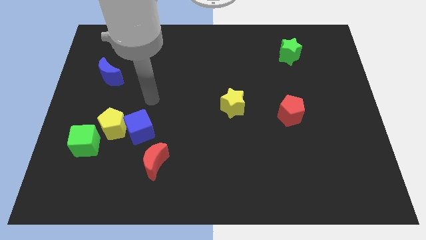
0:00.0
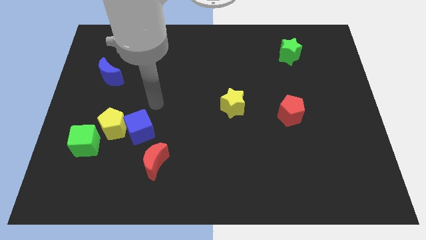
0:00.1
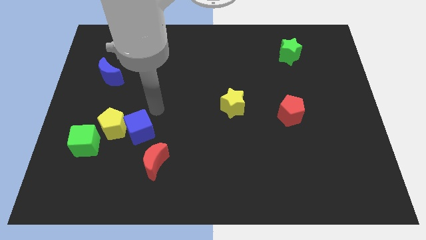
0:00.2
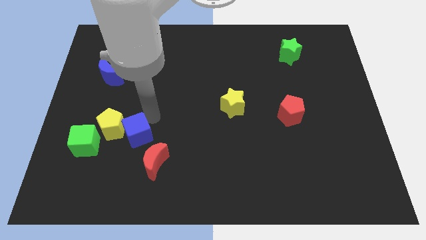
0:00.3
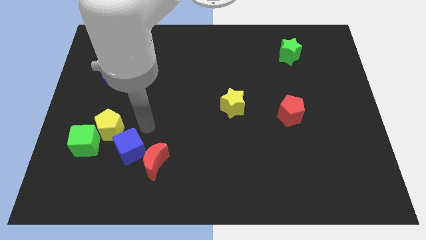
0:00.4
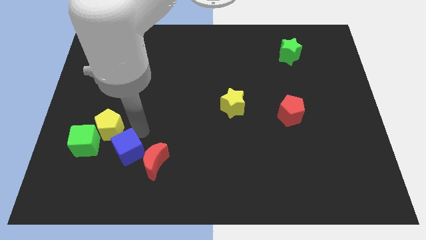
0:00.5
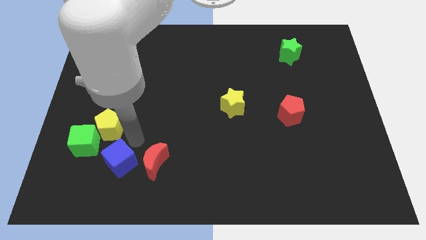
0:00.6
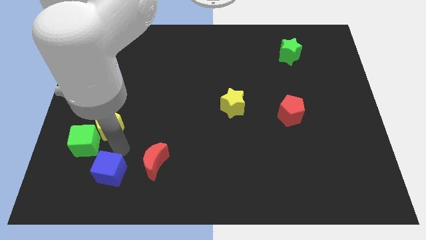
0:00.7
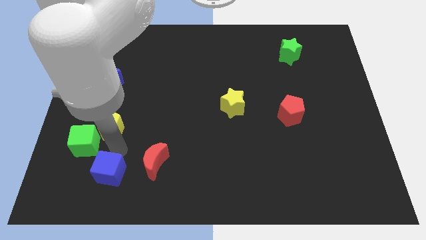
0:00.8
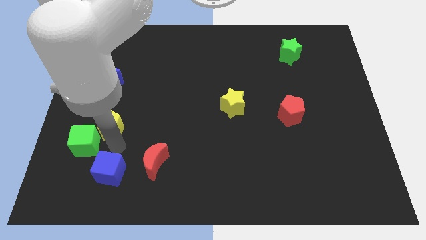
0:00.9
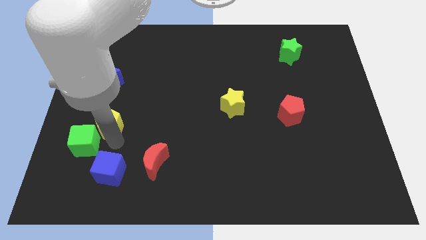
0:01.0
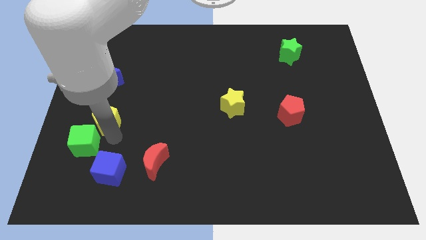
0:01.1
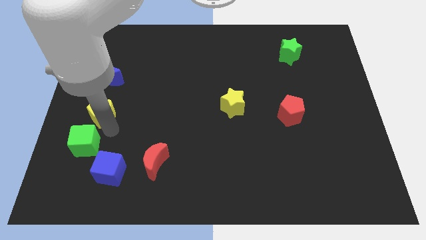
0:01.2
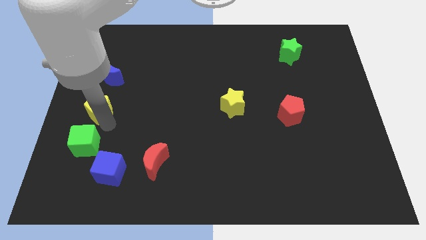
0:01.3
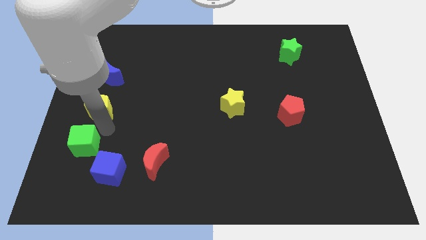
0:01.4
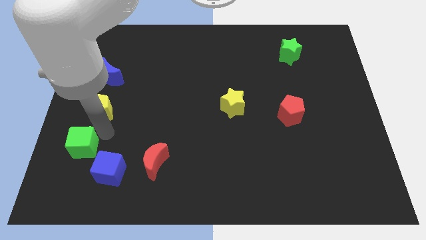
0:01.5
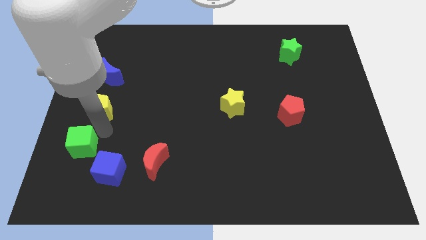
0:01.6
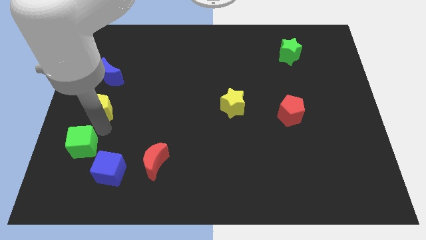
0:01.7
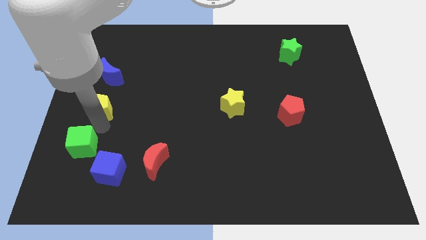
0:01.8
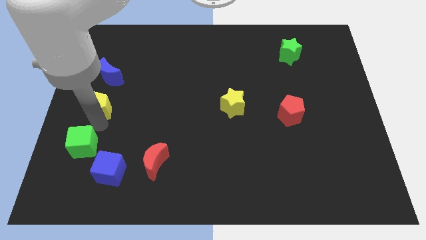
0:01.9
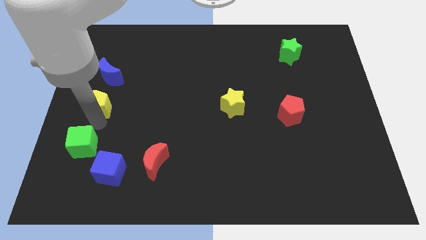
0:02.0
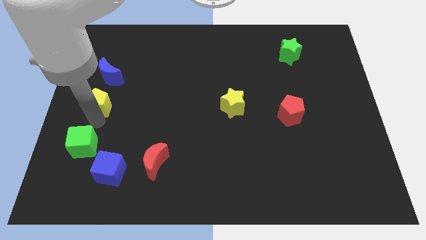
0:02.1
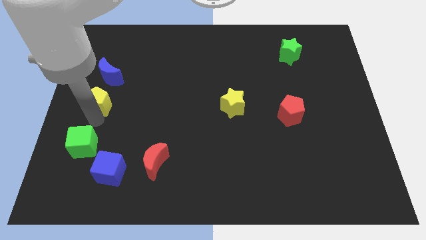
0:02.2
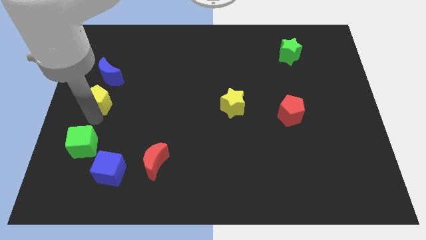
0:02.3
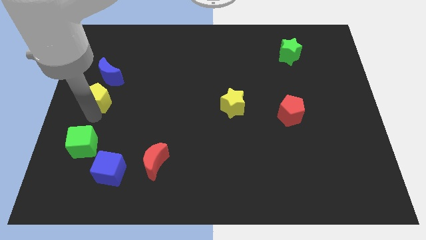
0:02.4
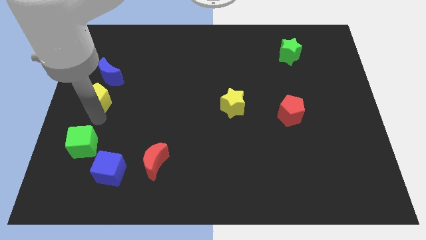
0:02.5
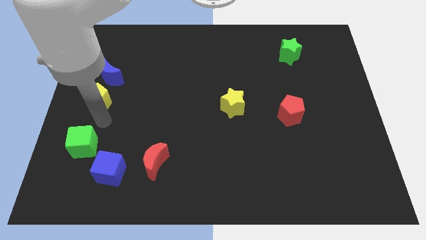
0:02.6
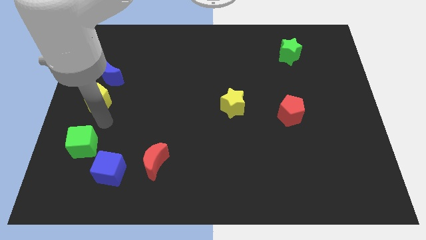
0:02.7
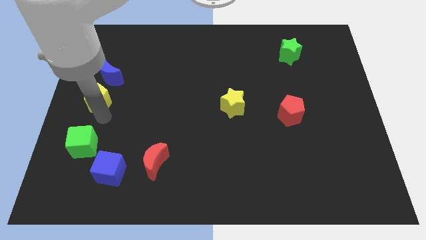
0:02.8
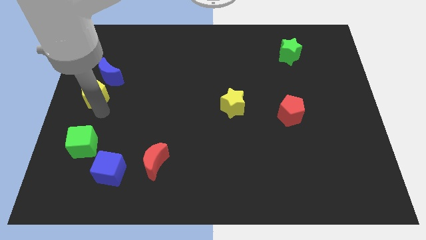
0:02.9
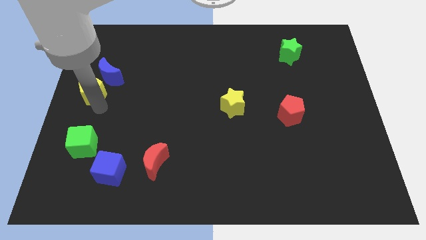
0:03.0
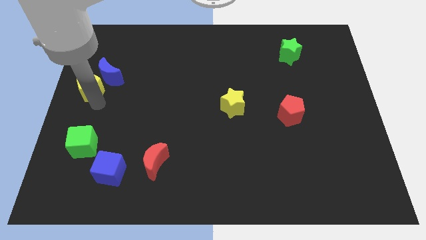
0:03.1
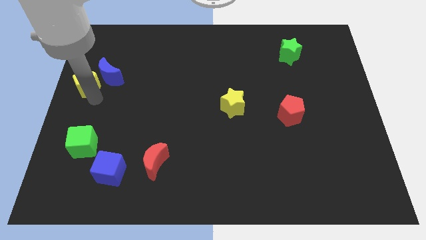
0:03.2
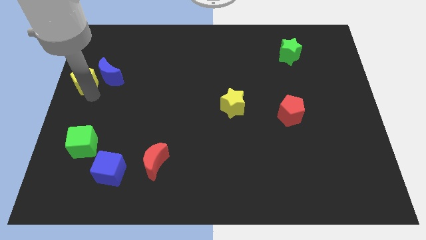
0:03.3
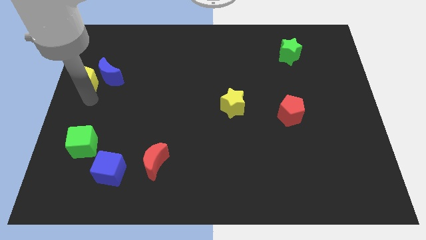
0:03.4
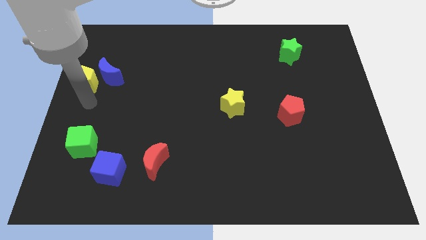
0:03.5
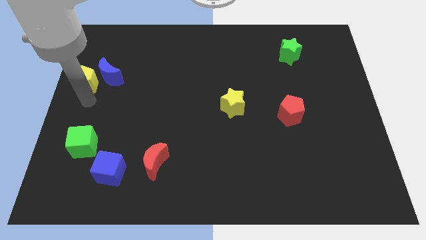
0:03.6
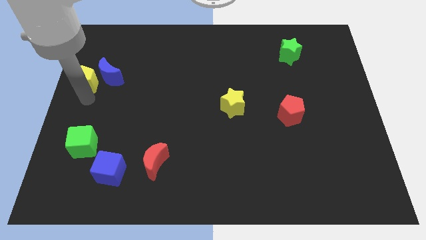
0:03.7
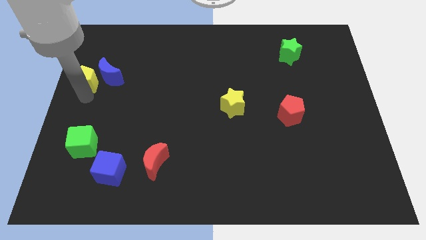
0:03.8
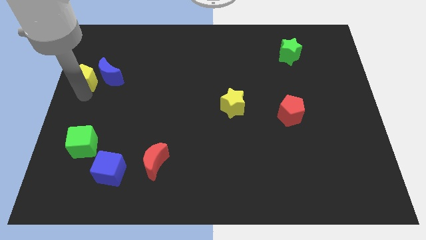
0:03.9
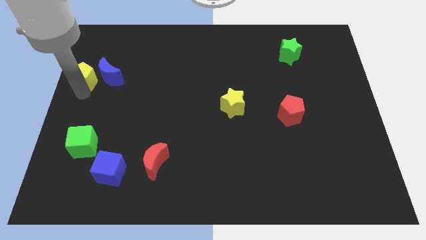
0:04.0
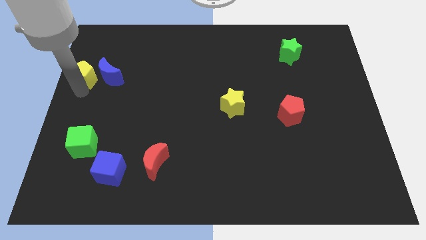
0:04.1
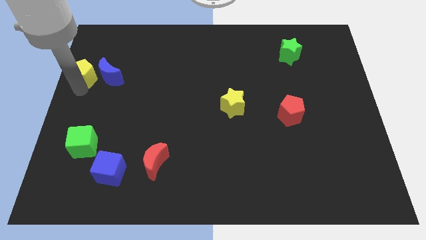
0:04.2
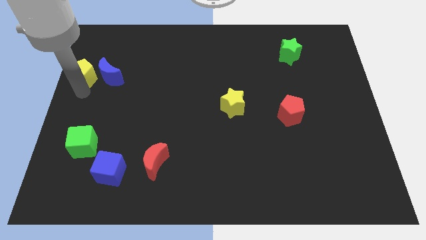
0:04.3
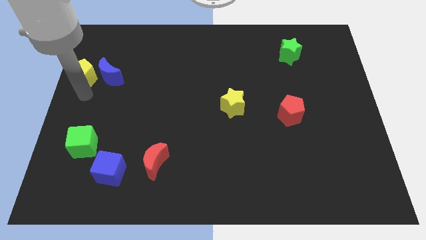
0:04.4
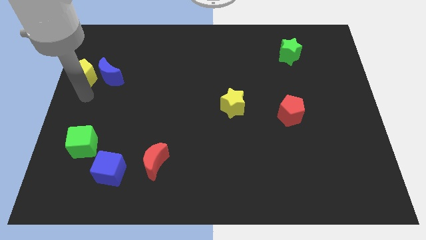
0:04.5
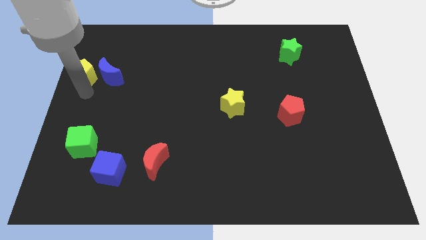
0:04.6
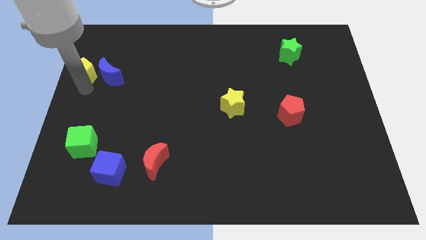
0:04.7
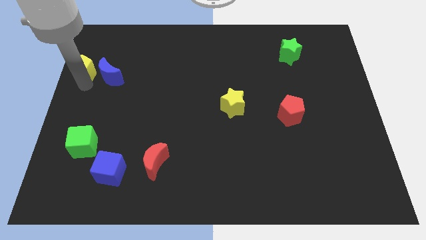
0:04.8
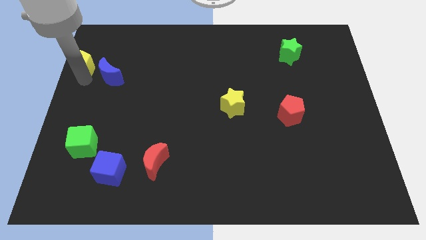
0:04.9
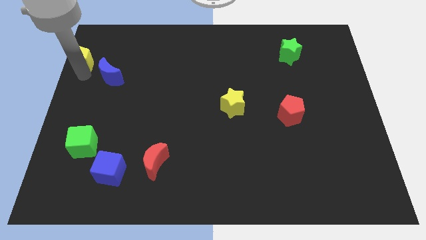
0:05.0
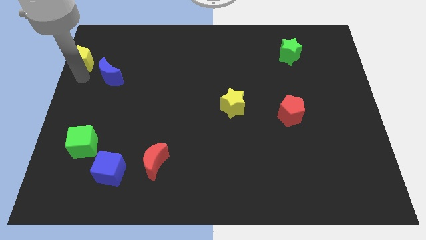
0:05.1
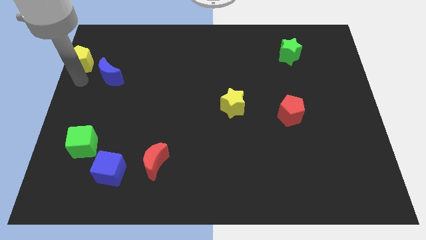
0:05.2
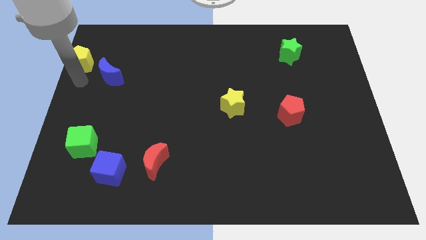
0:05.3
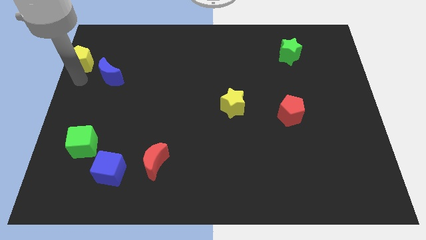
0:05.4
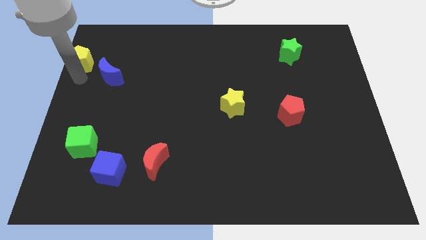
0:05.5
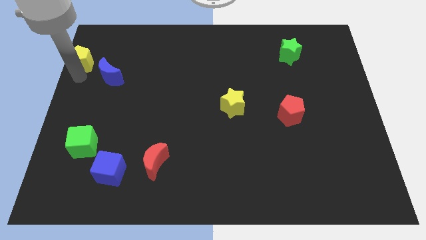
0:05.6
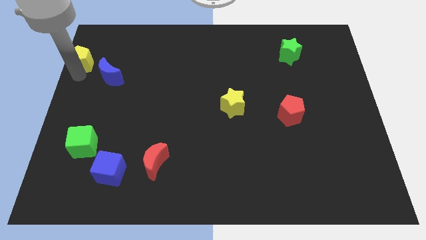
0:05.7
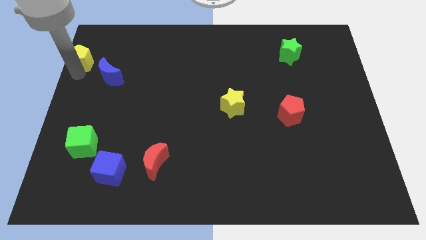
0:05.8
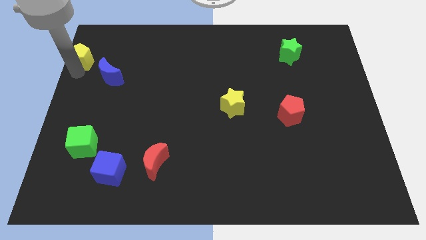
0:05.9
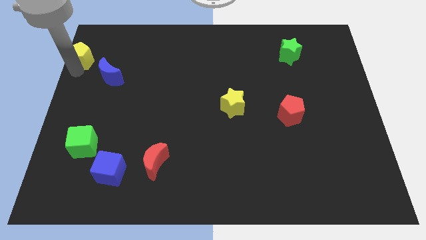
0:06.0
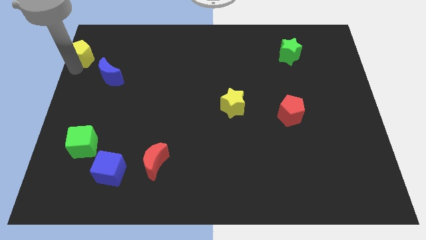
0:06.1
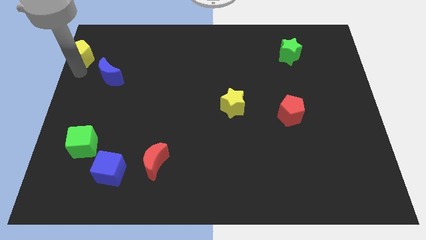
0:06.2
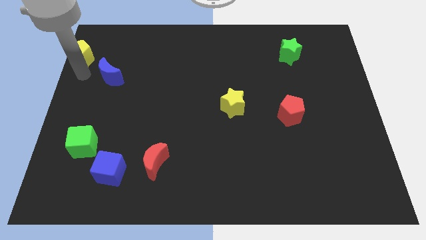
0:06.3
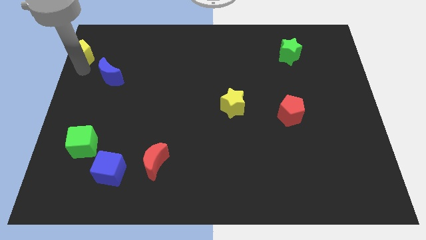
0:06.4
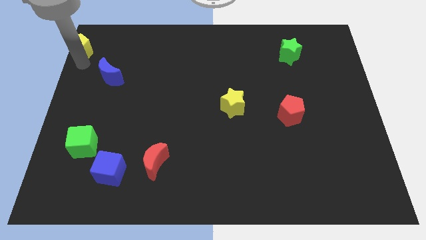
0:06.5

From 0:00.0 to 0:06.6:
move the yellow pentagon to the top left corner
